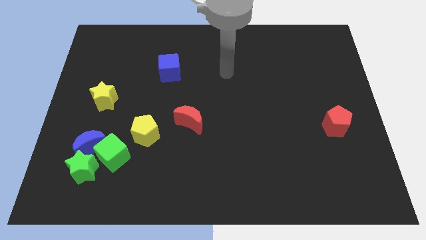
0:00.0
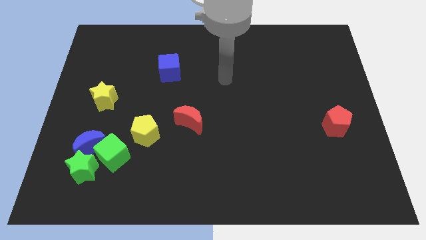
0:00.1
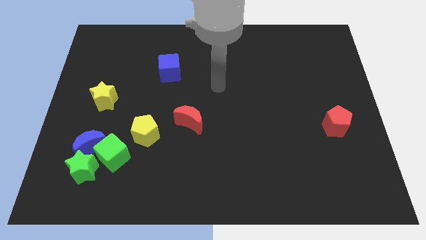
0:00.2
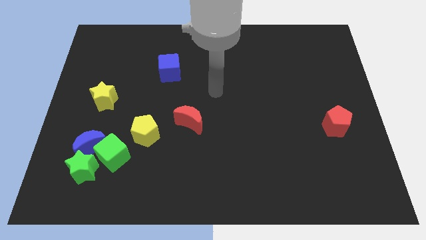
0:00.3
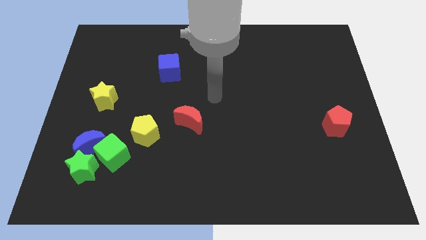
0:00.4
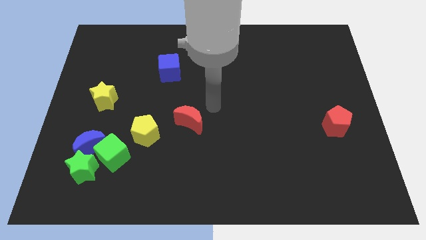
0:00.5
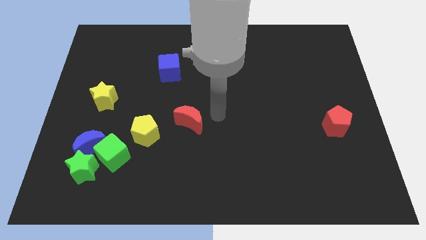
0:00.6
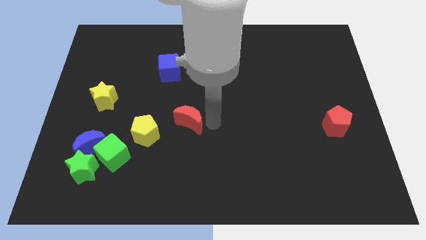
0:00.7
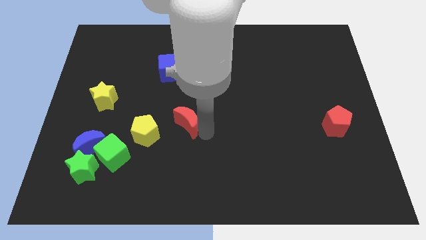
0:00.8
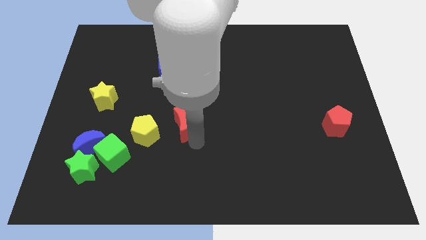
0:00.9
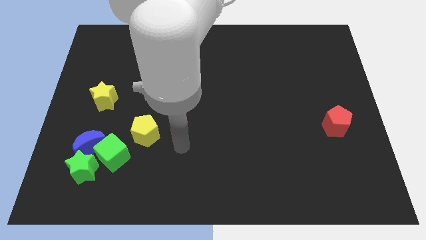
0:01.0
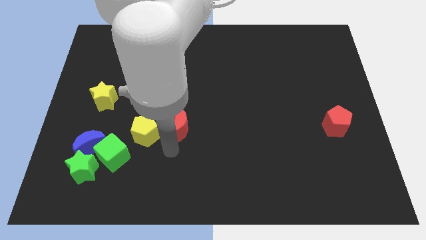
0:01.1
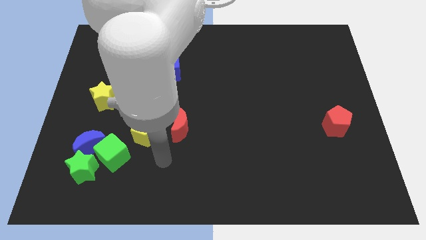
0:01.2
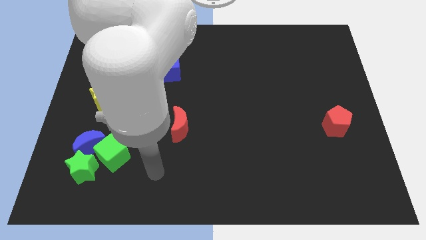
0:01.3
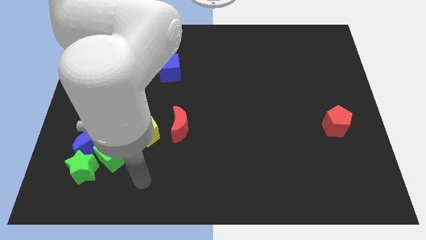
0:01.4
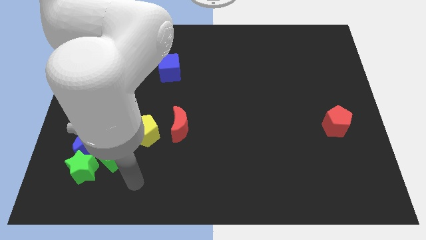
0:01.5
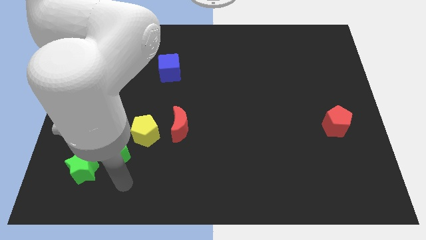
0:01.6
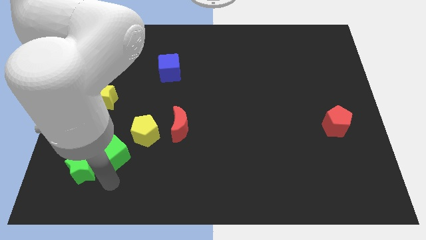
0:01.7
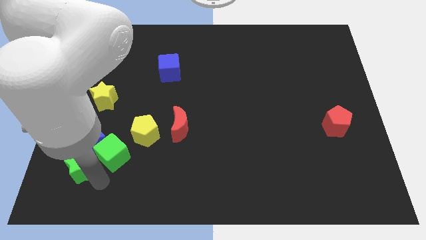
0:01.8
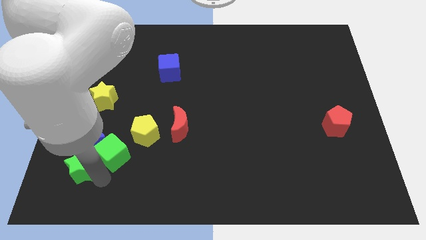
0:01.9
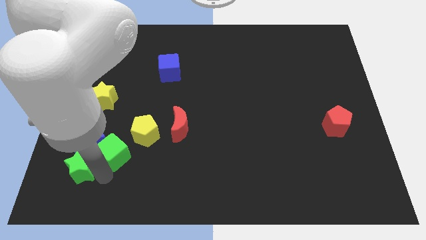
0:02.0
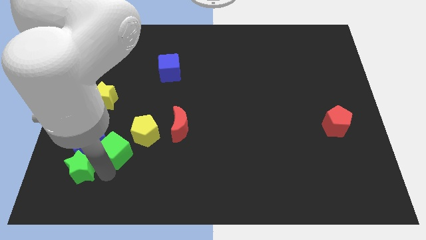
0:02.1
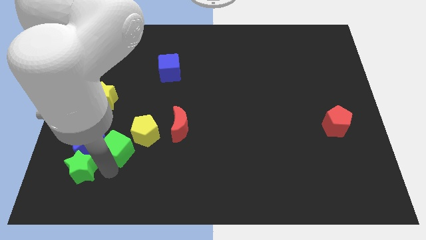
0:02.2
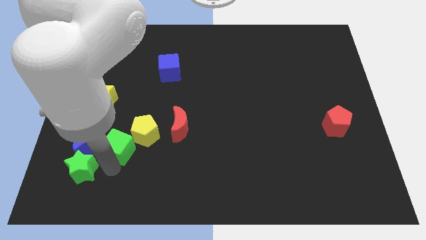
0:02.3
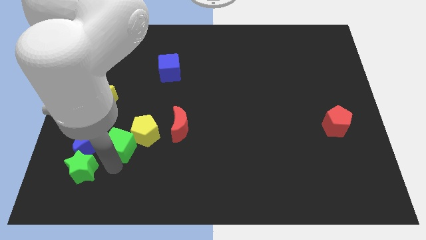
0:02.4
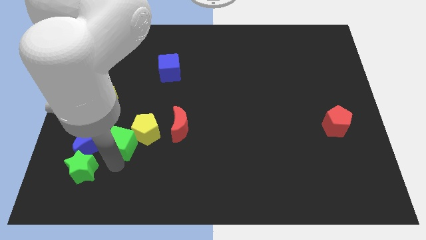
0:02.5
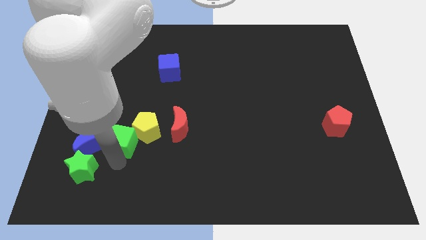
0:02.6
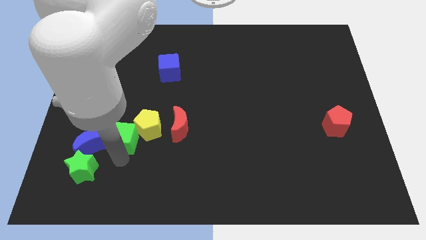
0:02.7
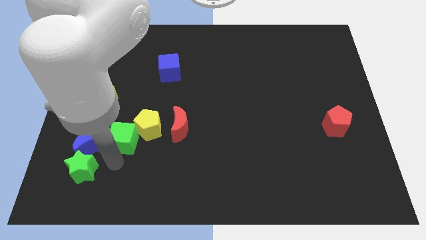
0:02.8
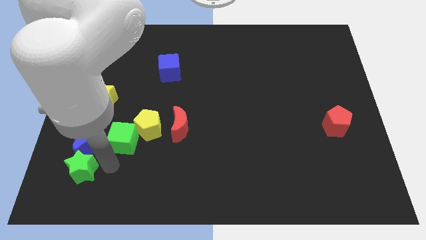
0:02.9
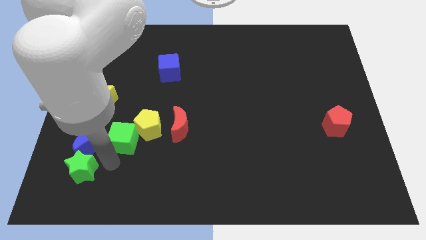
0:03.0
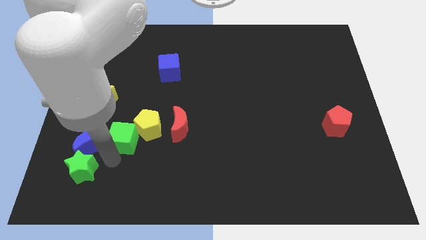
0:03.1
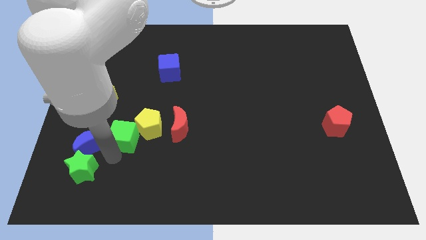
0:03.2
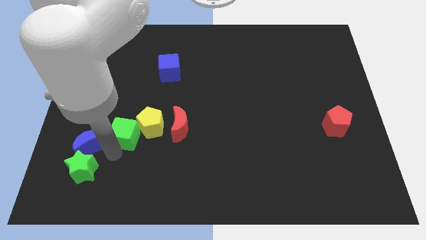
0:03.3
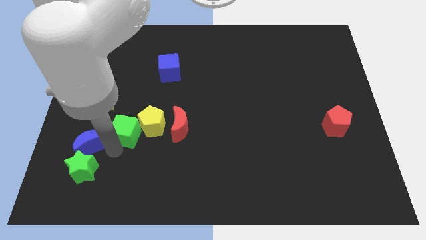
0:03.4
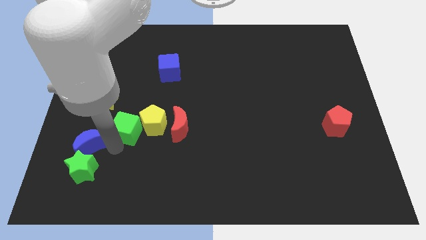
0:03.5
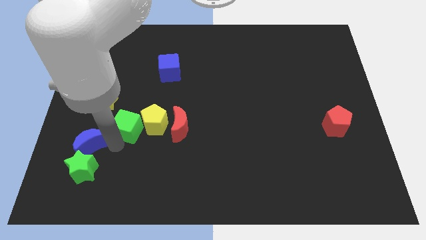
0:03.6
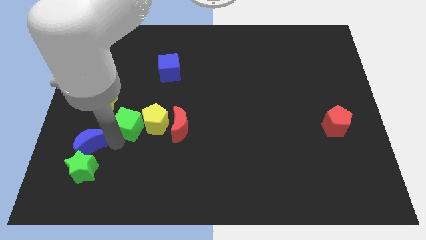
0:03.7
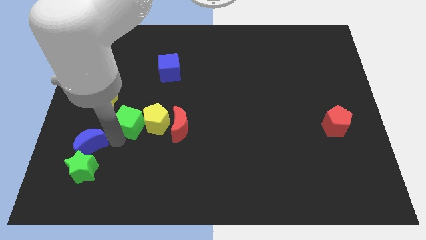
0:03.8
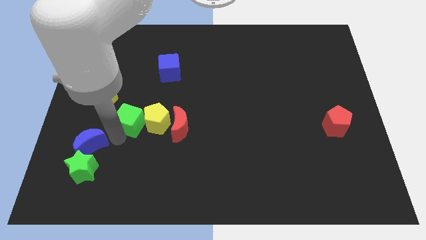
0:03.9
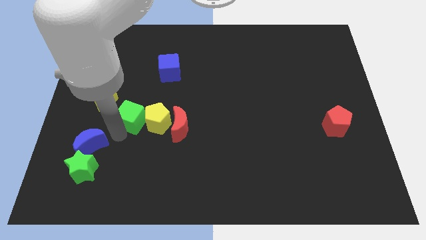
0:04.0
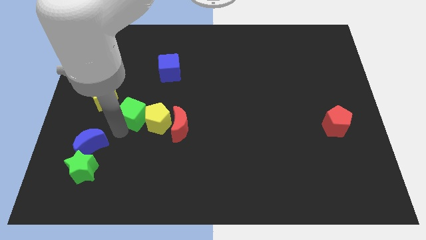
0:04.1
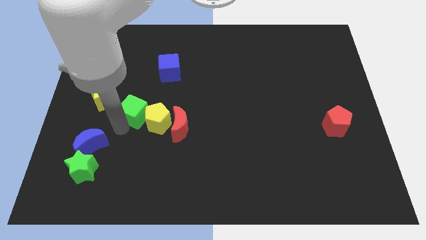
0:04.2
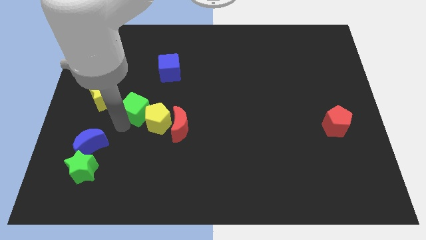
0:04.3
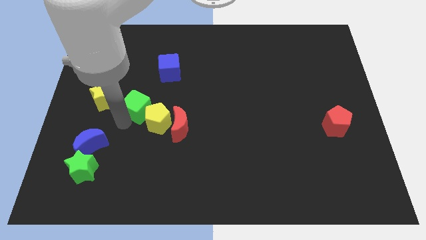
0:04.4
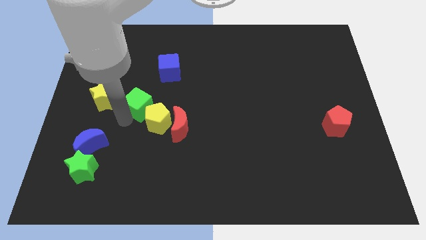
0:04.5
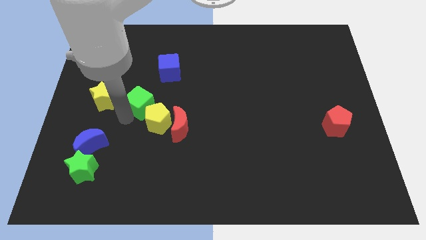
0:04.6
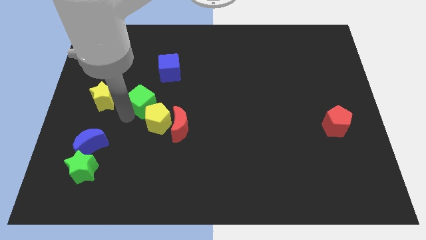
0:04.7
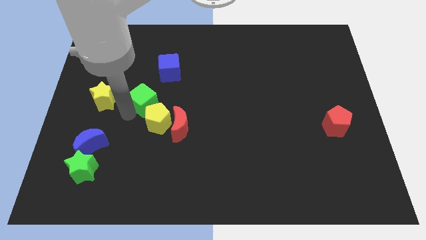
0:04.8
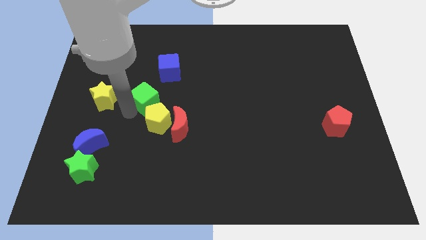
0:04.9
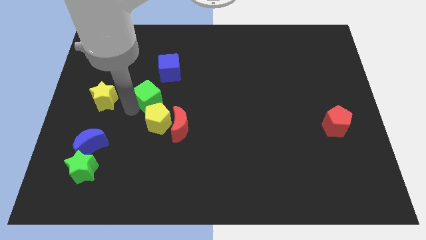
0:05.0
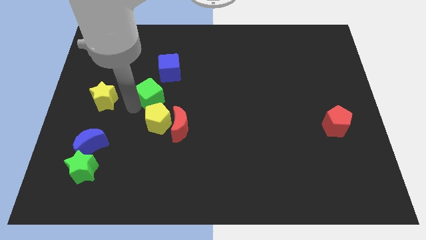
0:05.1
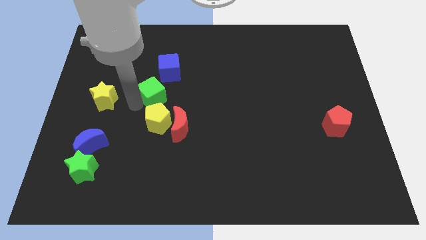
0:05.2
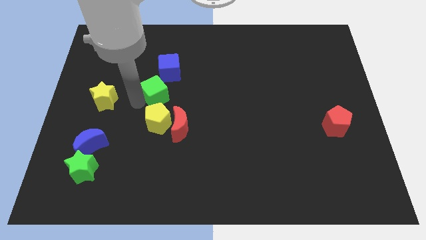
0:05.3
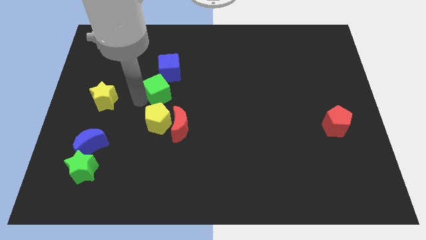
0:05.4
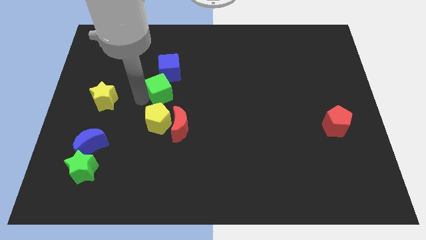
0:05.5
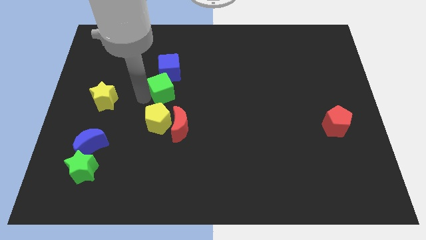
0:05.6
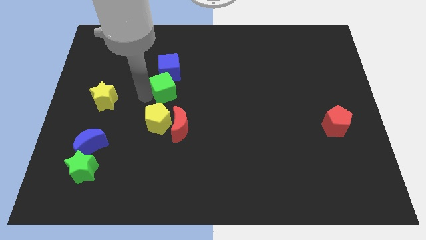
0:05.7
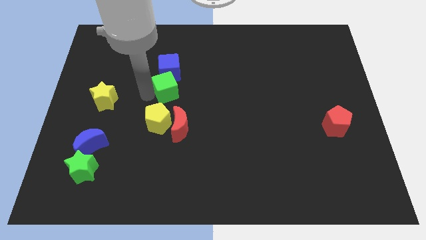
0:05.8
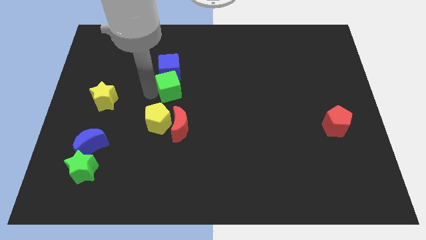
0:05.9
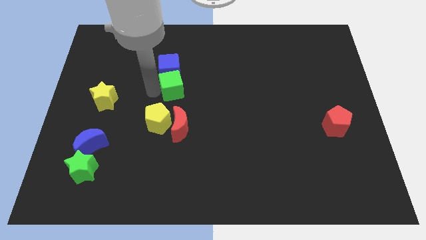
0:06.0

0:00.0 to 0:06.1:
push the green cube upwards and then right

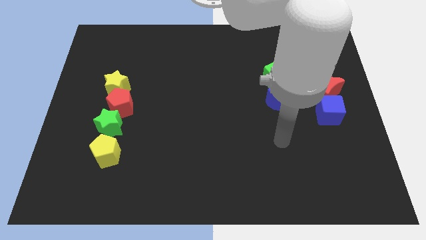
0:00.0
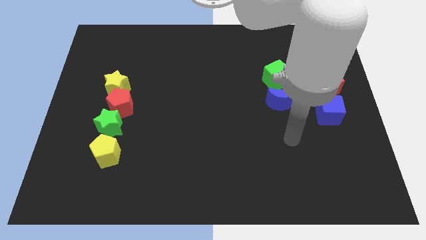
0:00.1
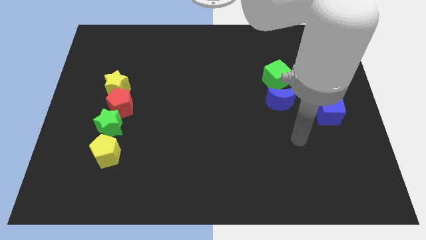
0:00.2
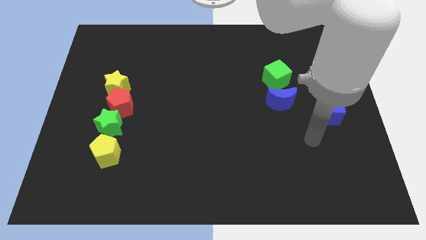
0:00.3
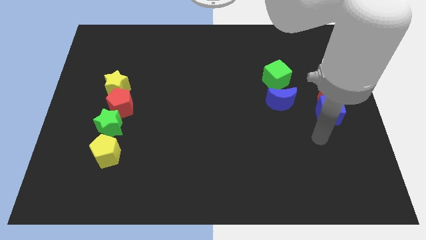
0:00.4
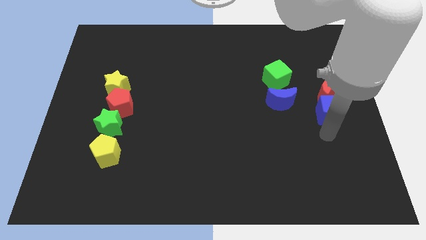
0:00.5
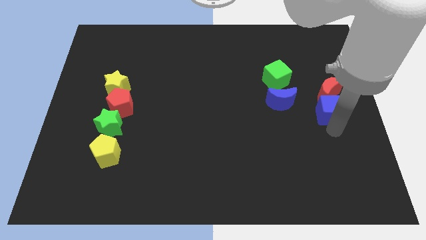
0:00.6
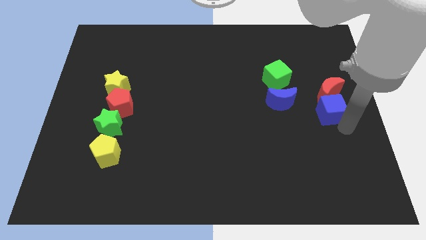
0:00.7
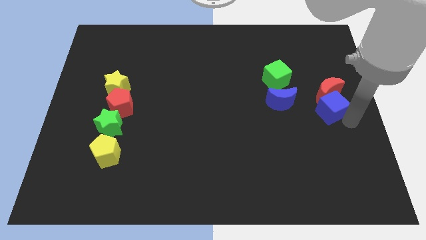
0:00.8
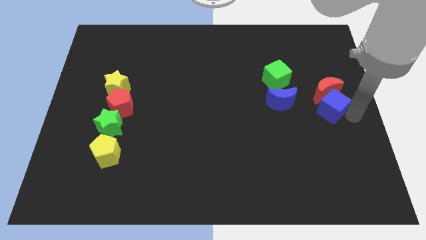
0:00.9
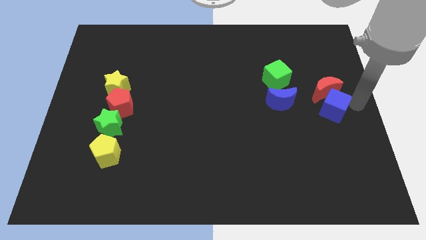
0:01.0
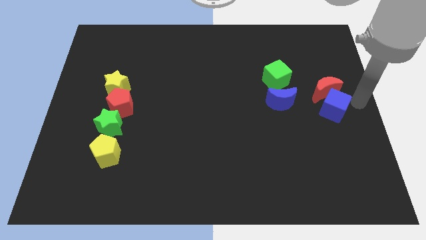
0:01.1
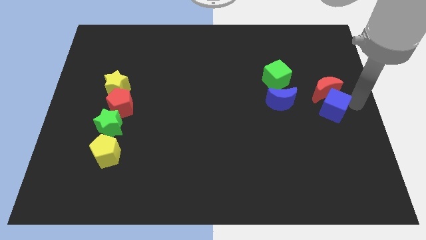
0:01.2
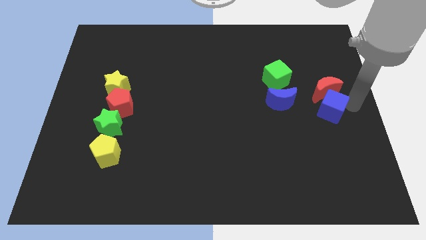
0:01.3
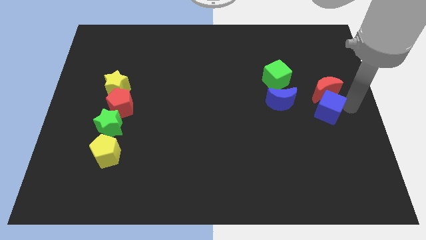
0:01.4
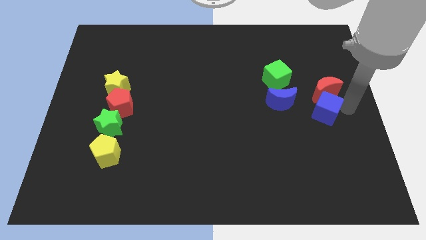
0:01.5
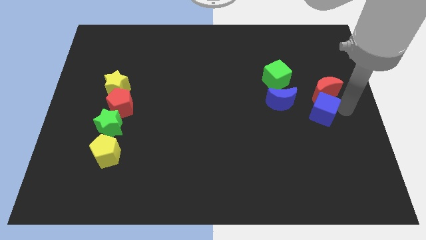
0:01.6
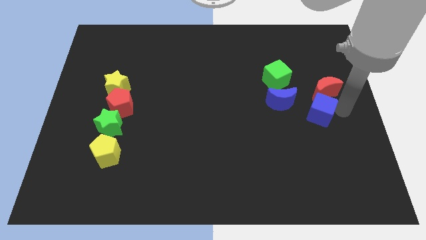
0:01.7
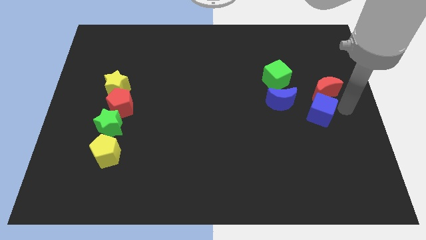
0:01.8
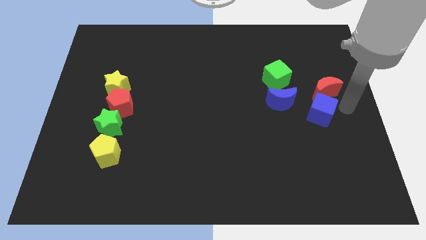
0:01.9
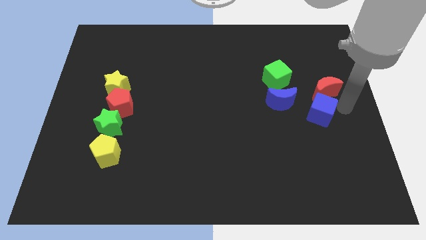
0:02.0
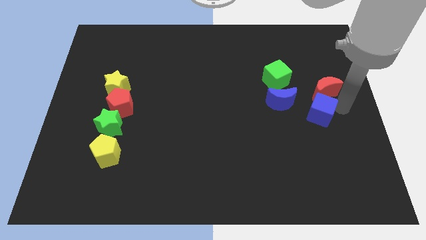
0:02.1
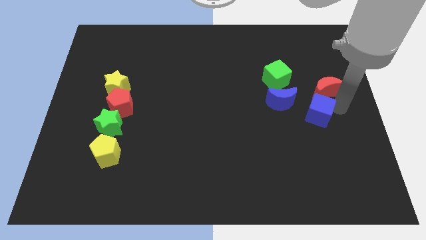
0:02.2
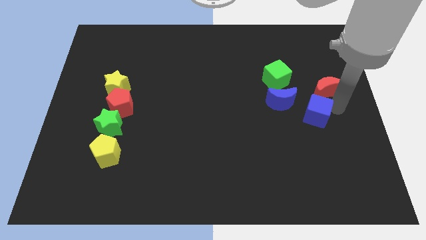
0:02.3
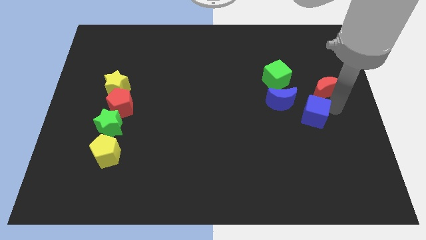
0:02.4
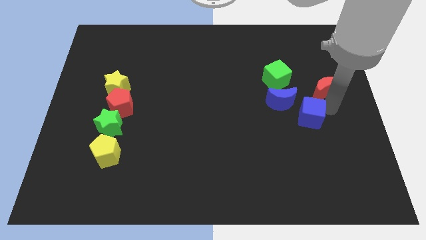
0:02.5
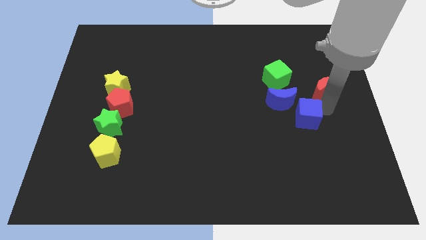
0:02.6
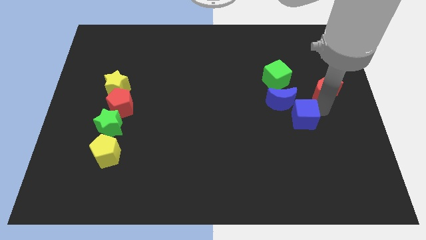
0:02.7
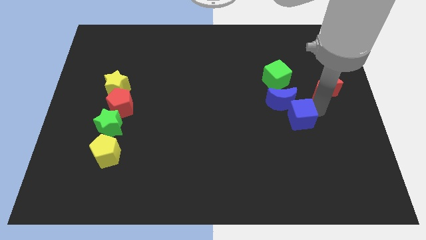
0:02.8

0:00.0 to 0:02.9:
move the blue cube left a bit
